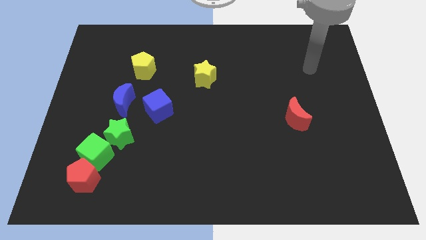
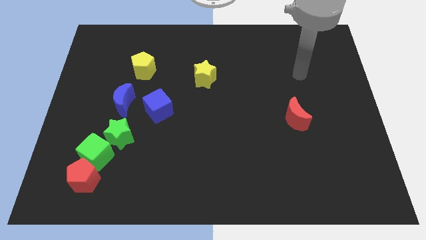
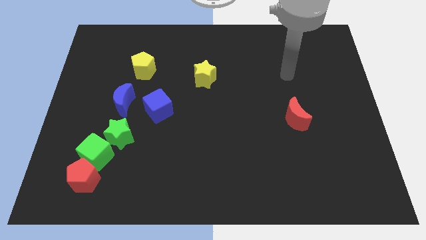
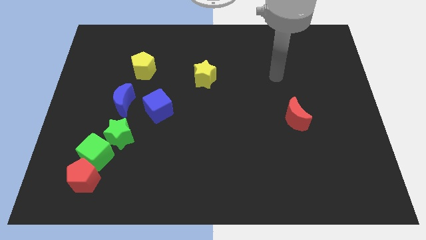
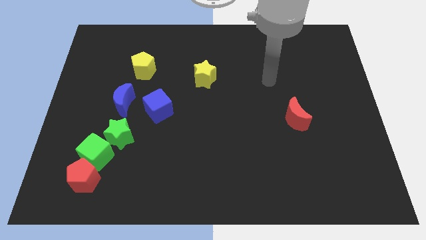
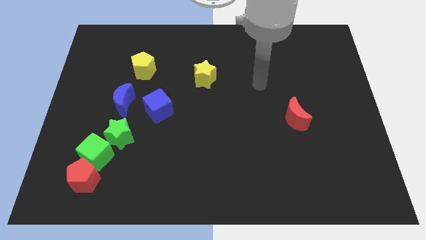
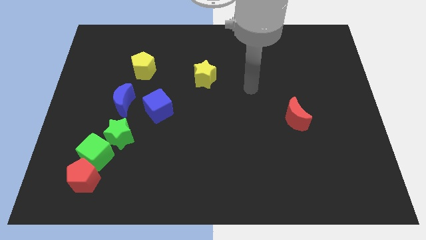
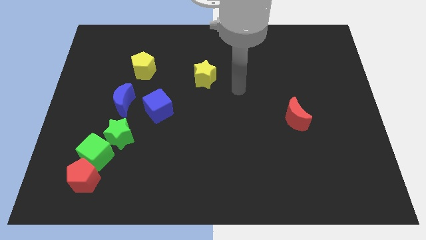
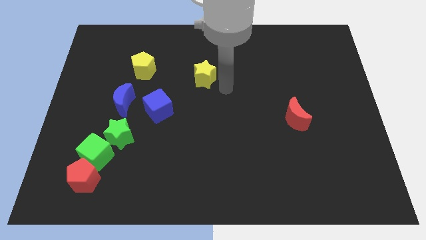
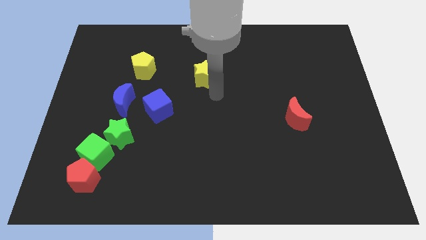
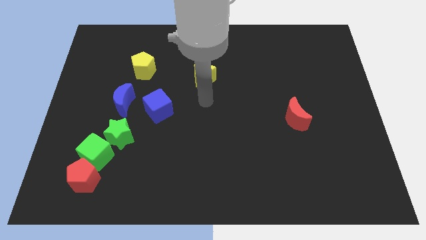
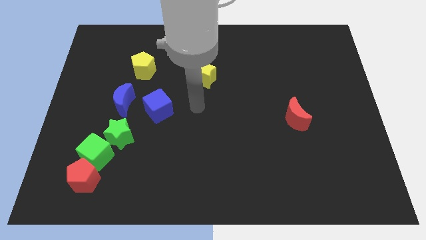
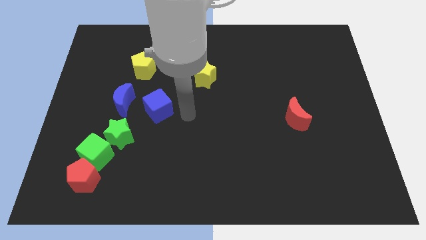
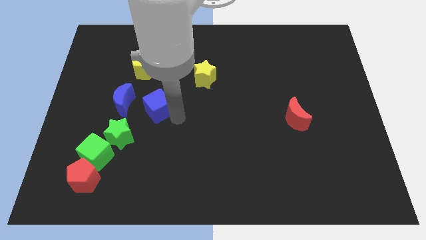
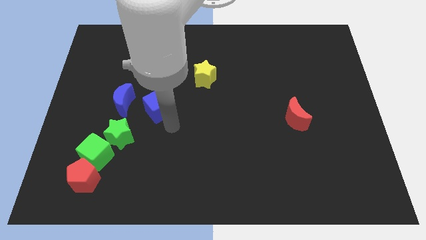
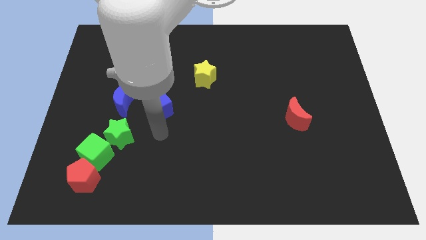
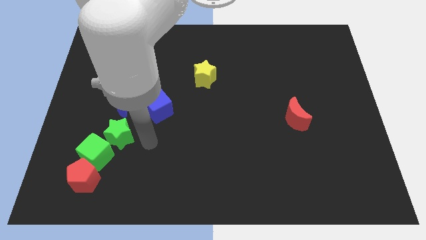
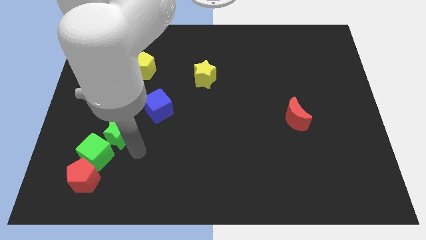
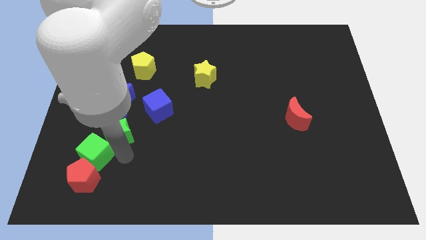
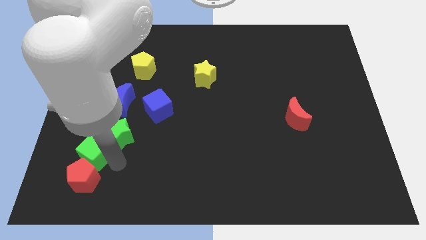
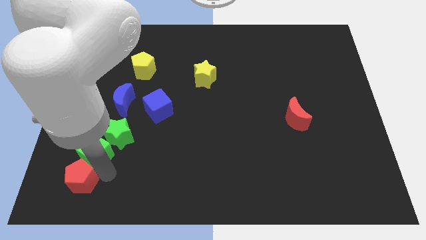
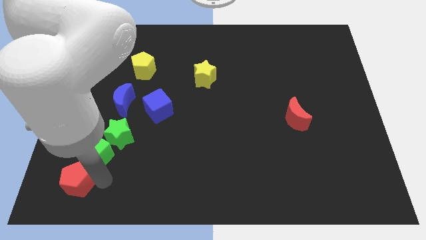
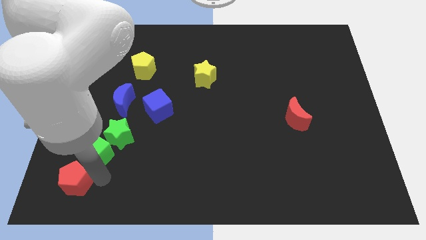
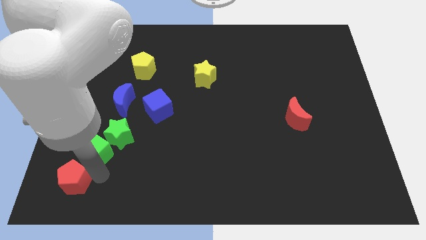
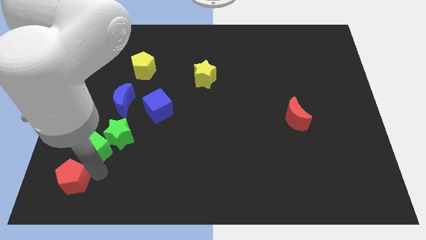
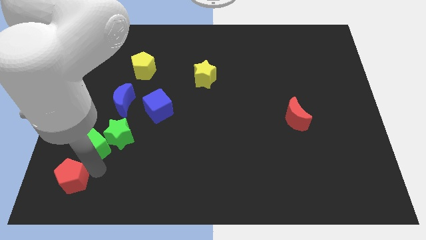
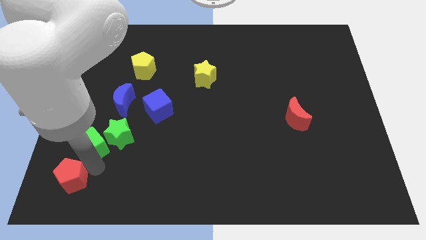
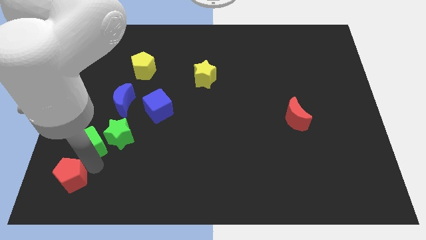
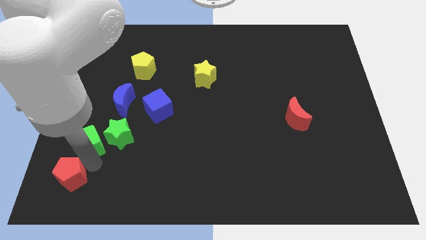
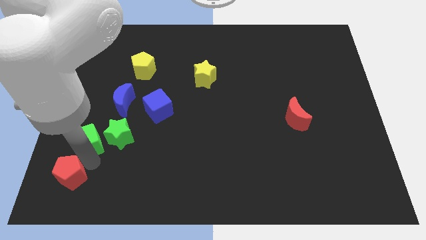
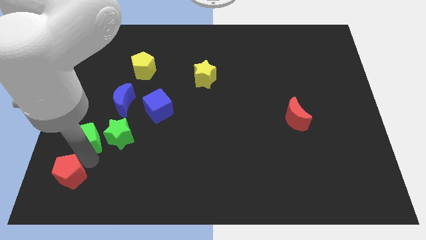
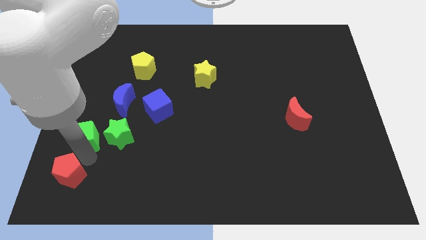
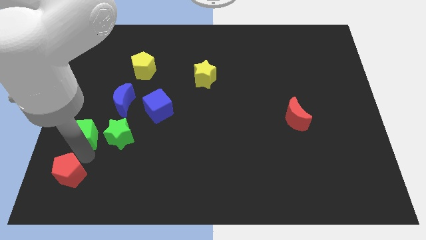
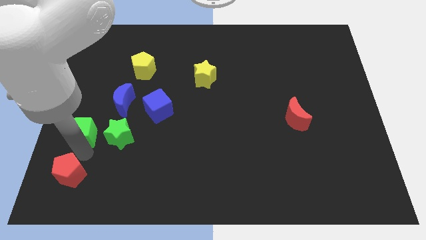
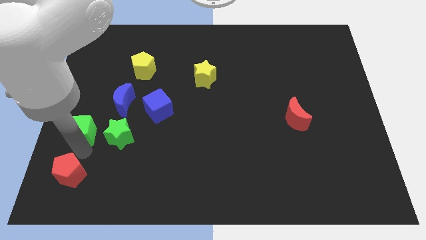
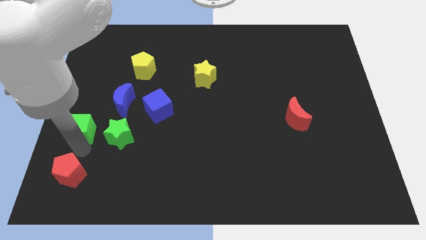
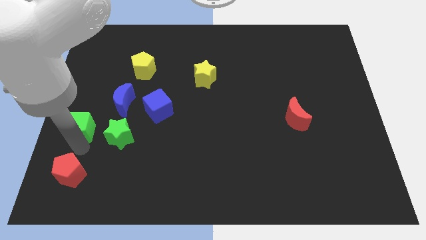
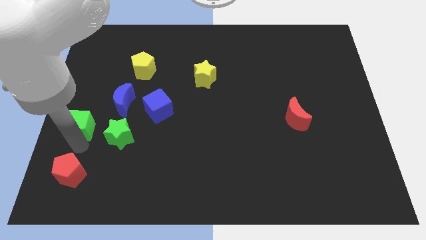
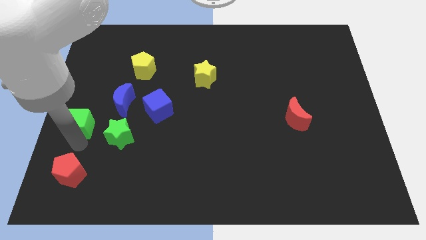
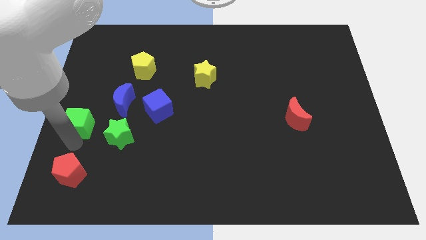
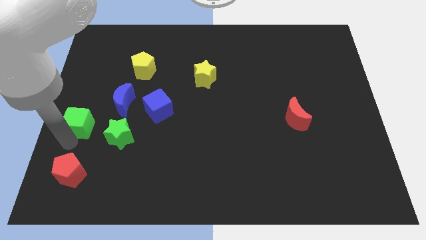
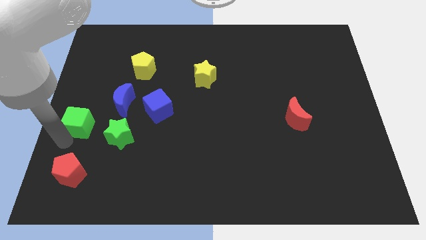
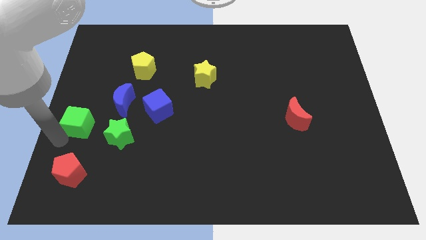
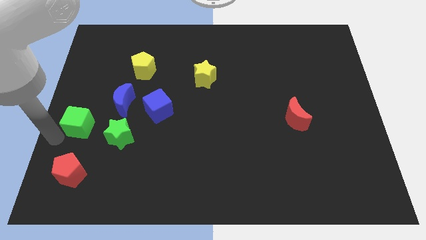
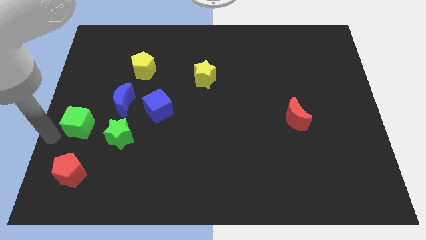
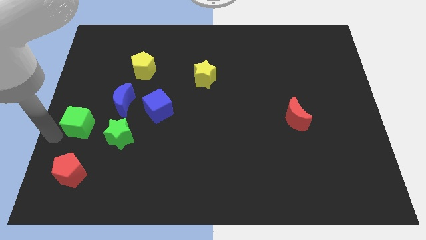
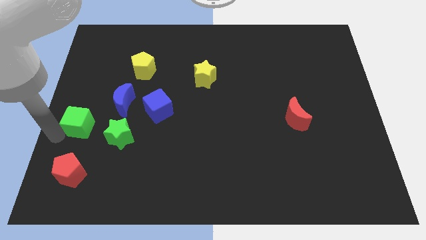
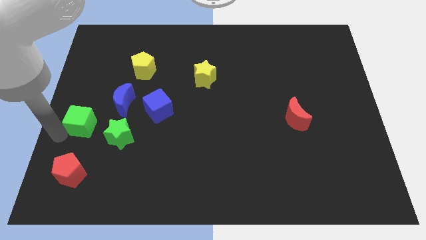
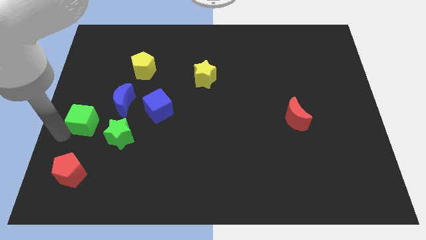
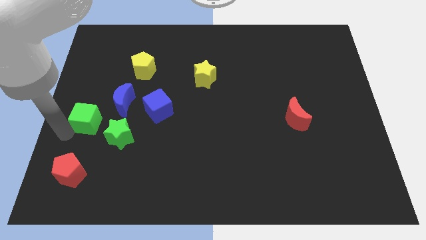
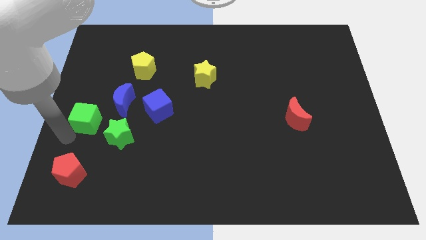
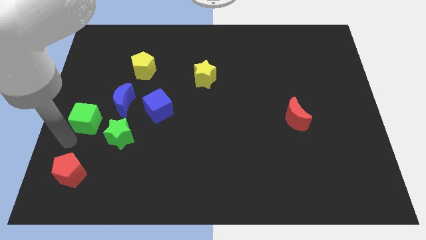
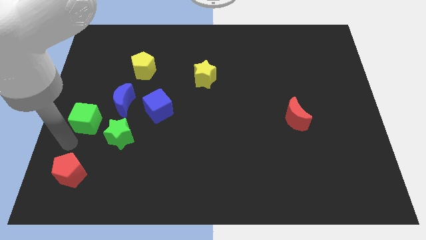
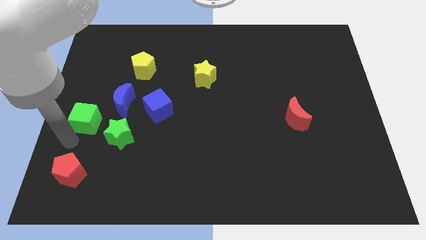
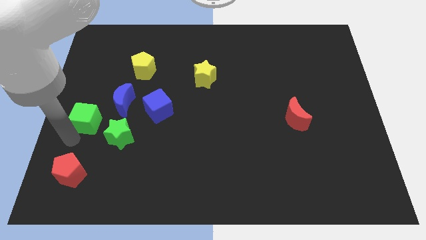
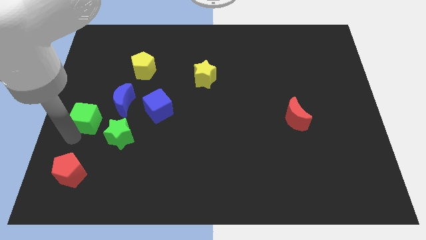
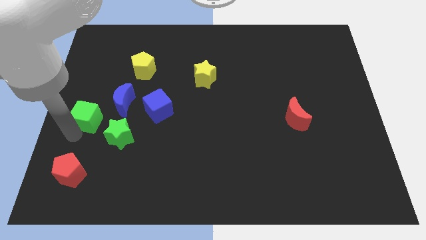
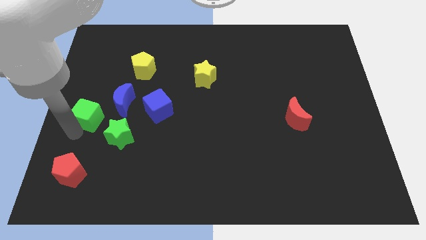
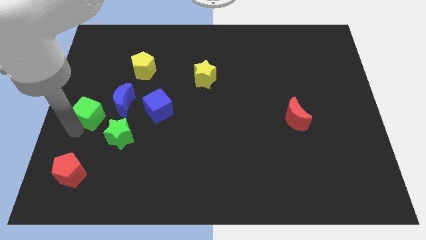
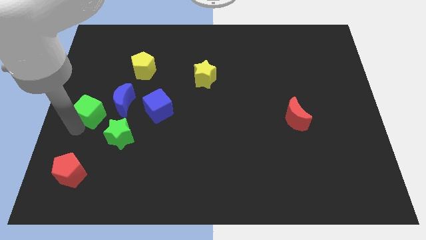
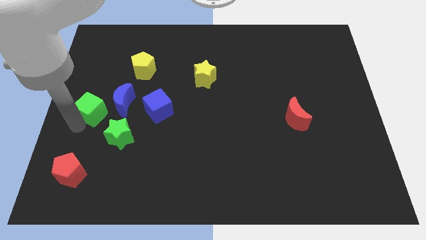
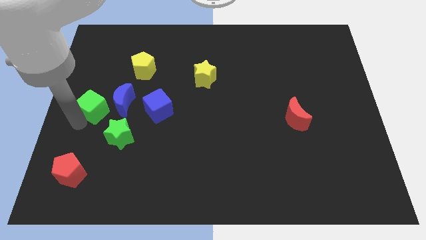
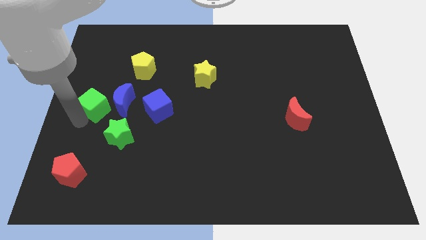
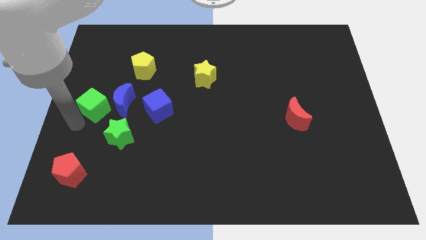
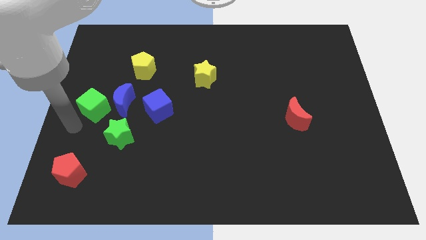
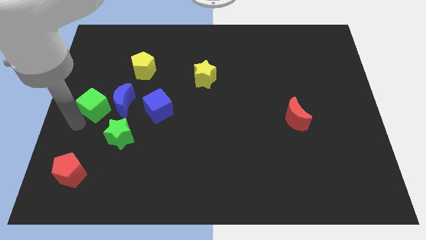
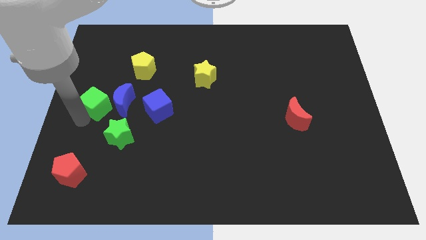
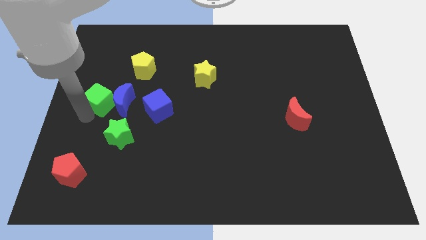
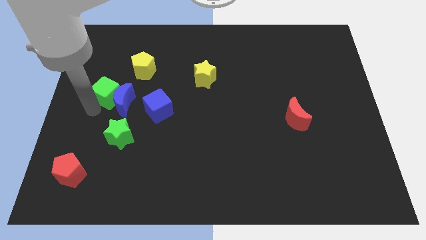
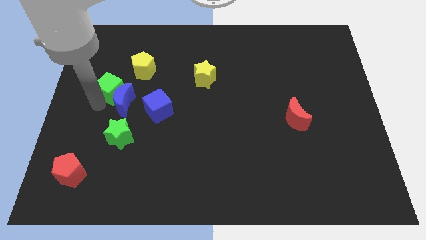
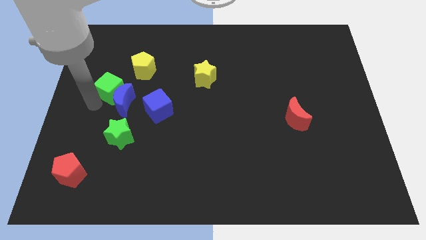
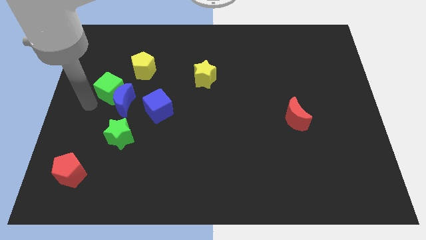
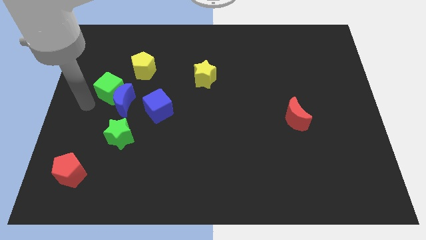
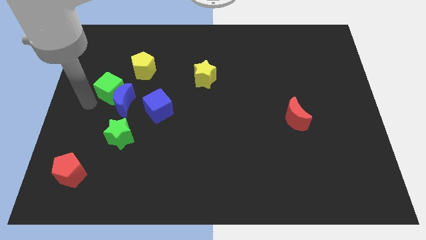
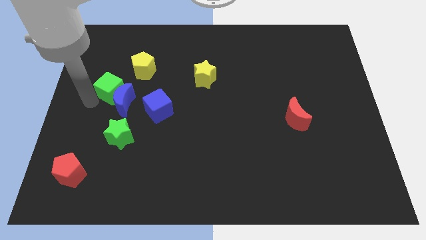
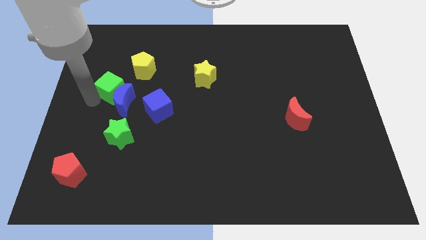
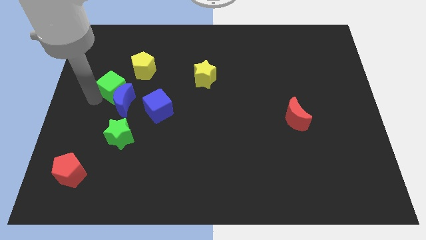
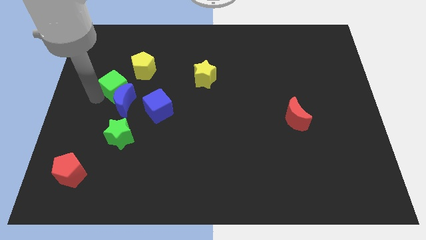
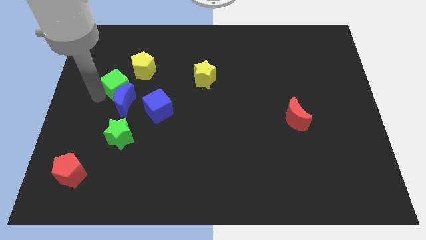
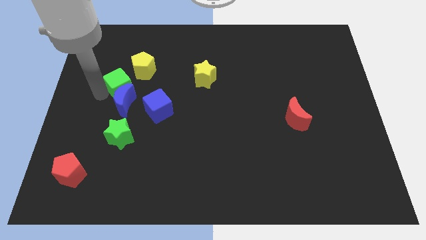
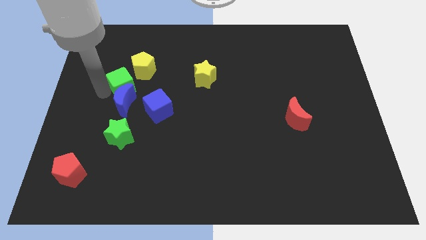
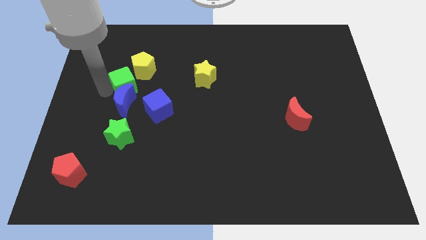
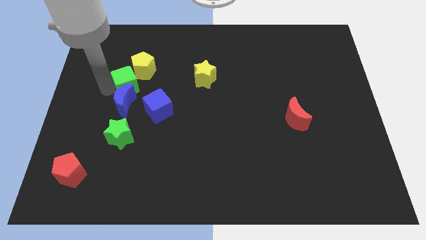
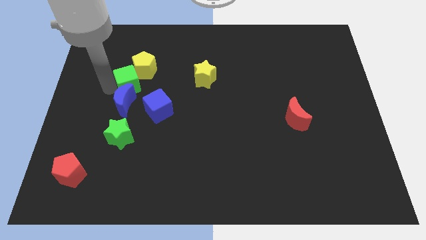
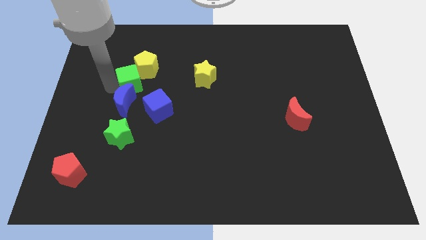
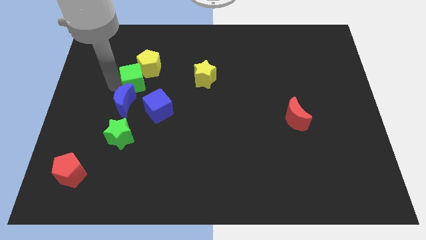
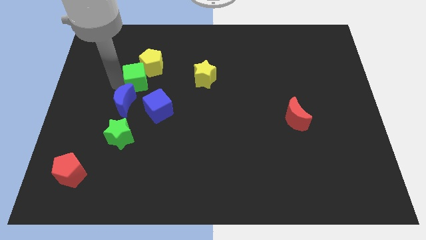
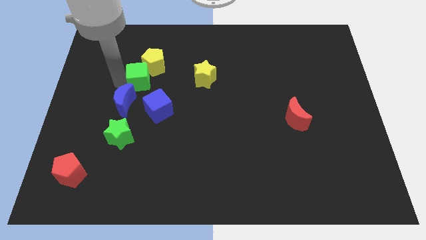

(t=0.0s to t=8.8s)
slide the green cube to the left side of the yellow star
